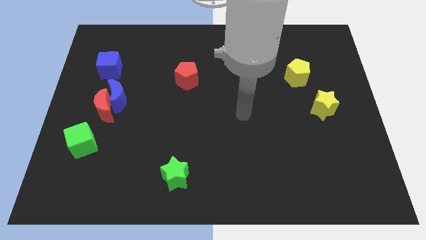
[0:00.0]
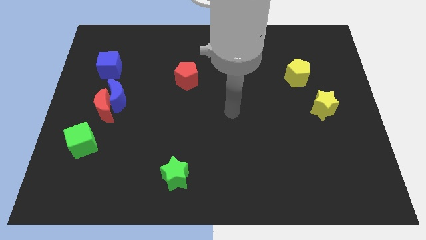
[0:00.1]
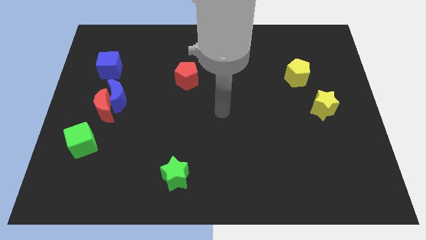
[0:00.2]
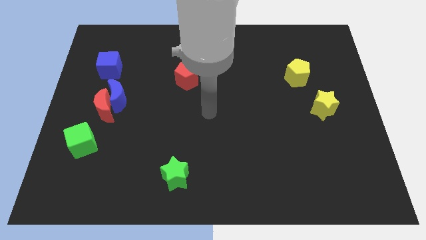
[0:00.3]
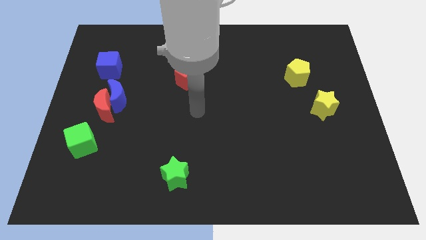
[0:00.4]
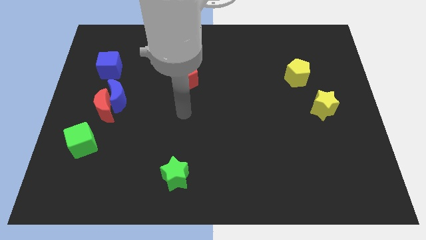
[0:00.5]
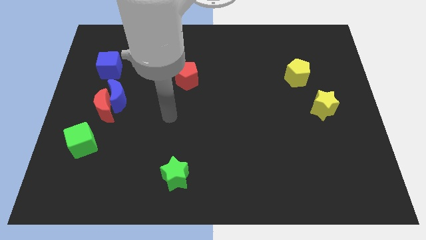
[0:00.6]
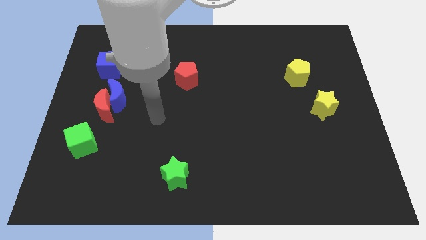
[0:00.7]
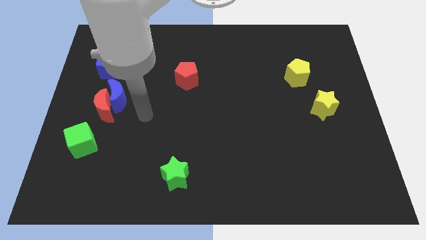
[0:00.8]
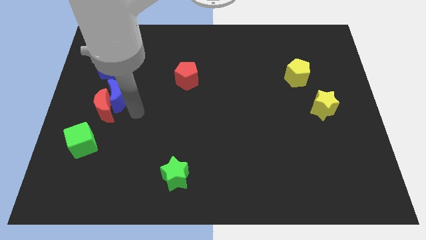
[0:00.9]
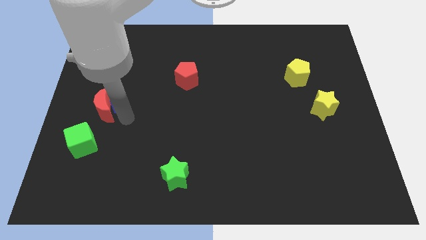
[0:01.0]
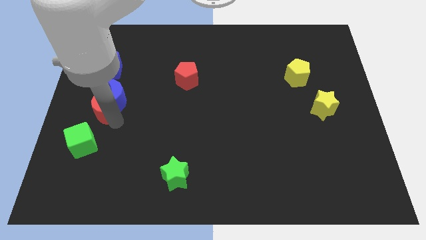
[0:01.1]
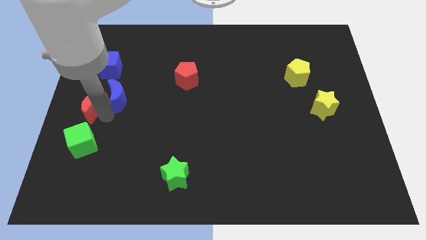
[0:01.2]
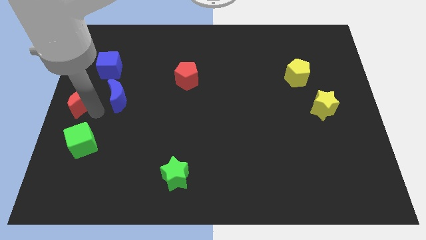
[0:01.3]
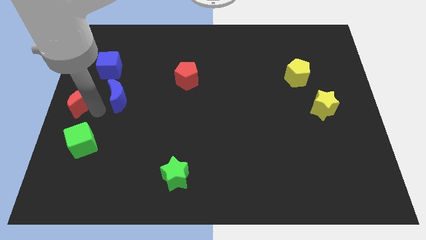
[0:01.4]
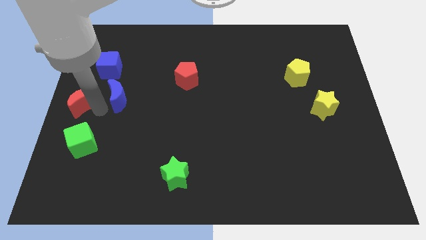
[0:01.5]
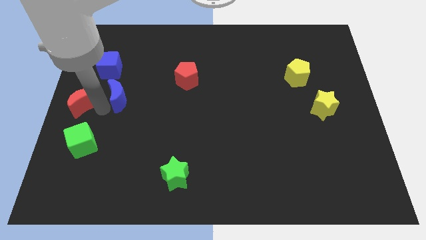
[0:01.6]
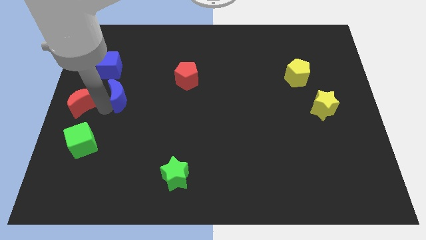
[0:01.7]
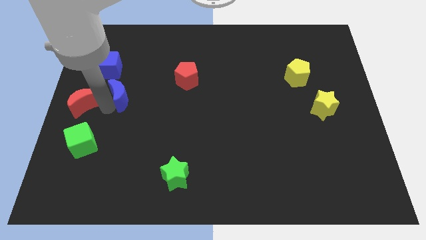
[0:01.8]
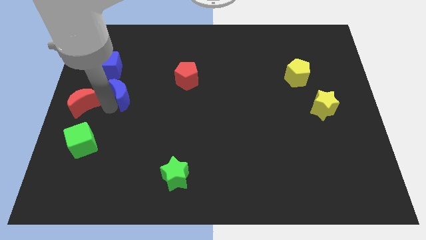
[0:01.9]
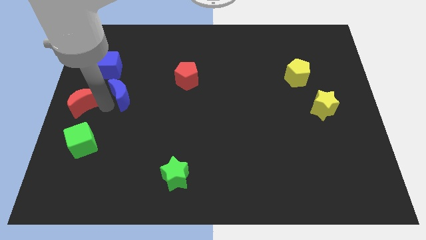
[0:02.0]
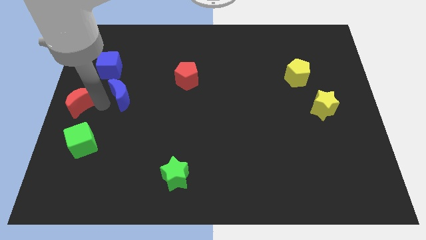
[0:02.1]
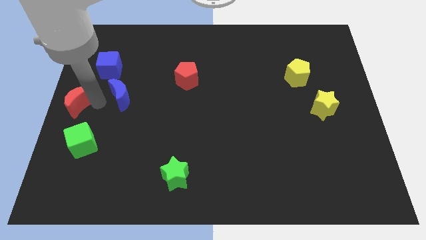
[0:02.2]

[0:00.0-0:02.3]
pull the blue moon apart from the red moon

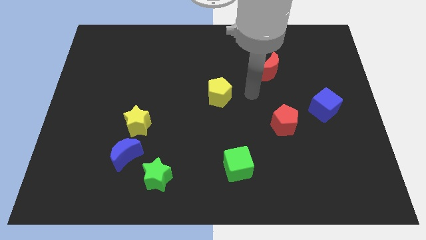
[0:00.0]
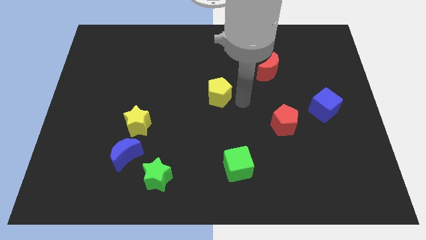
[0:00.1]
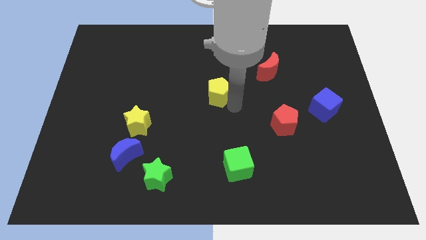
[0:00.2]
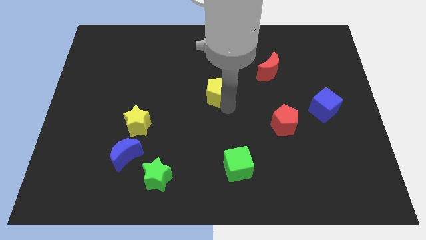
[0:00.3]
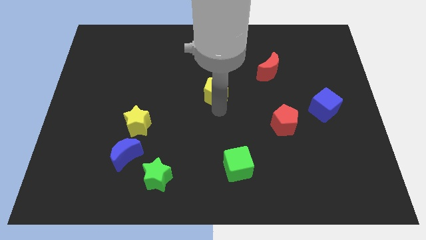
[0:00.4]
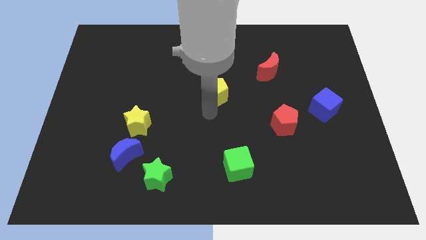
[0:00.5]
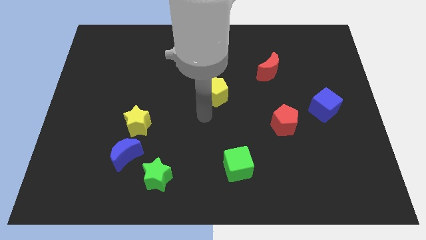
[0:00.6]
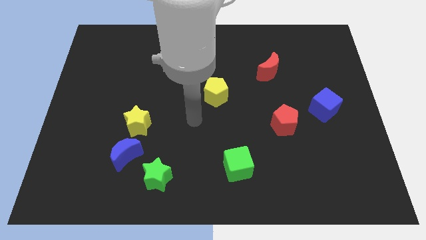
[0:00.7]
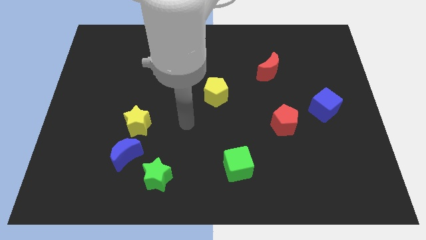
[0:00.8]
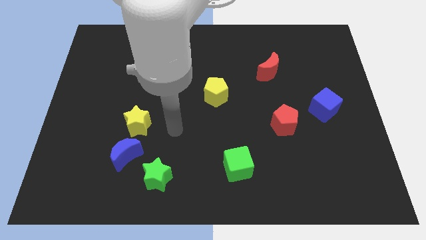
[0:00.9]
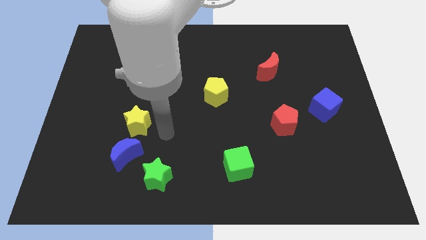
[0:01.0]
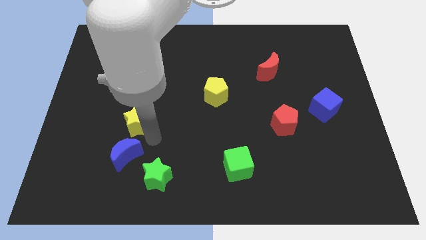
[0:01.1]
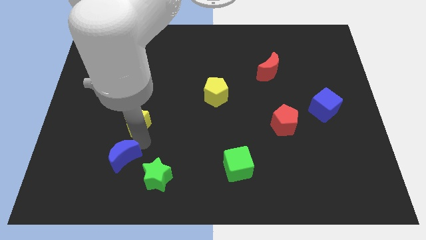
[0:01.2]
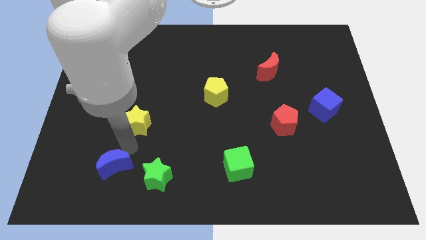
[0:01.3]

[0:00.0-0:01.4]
pull the yellow star apart from the blue moon

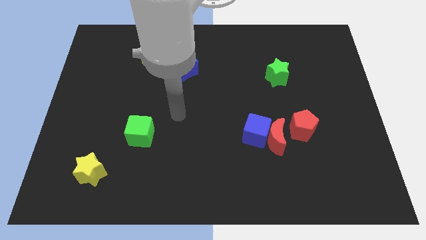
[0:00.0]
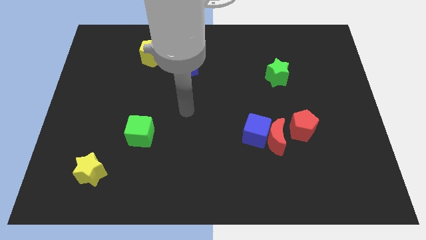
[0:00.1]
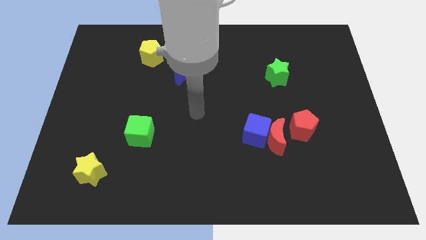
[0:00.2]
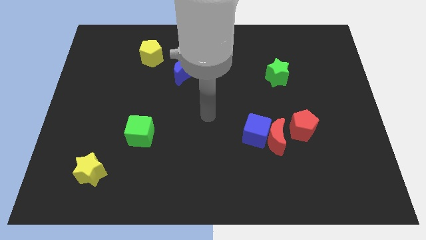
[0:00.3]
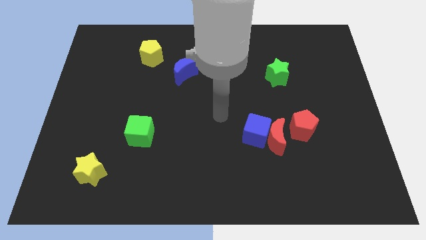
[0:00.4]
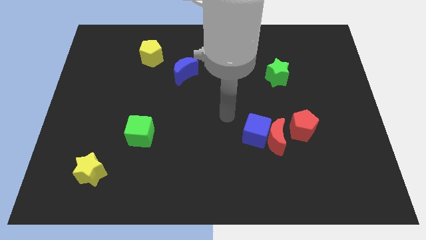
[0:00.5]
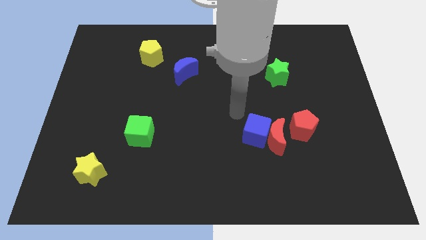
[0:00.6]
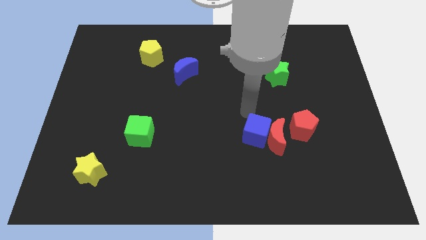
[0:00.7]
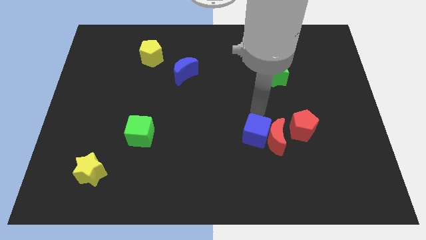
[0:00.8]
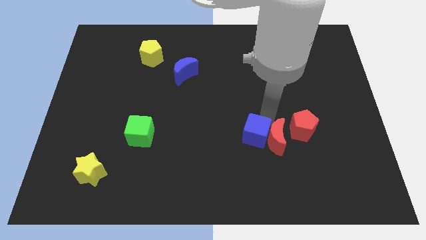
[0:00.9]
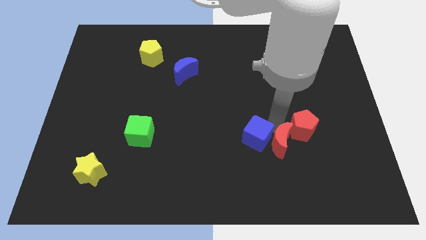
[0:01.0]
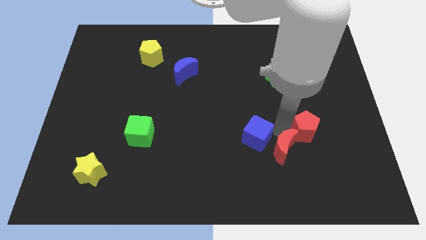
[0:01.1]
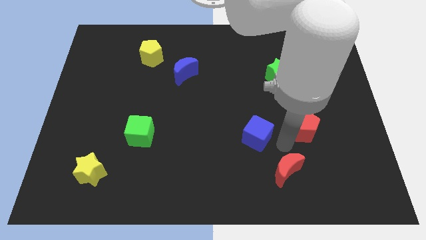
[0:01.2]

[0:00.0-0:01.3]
pull the blue cube apart from the red moon

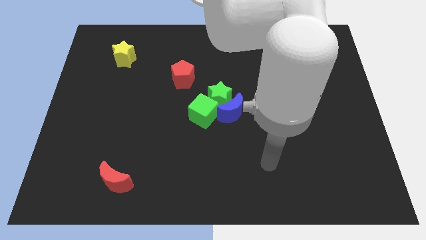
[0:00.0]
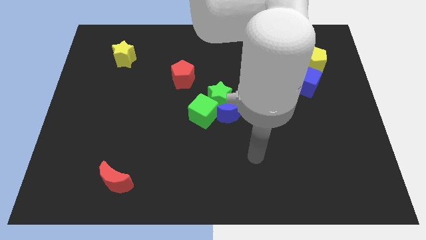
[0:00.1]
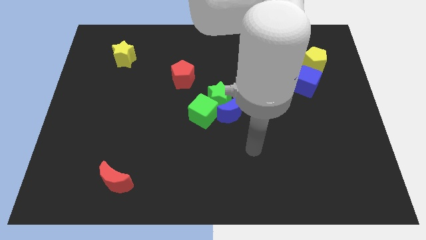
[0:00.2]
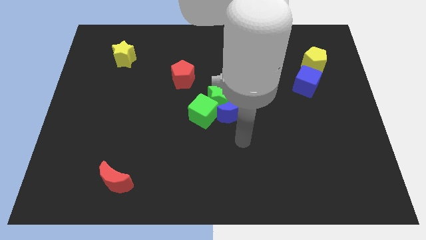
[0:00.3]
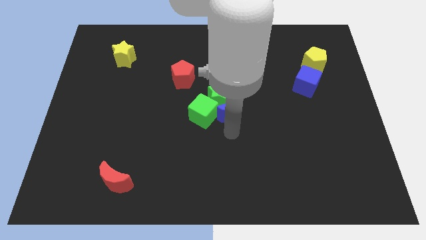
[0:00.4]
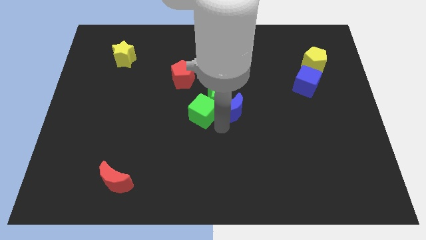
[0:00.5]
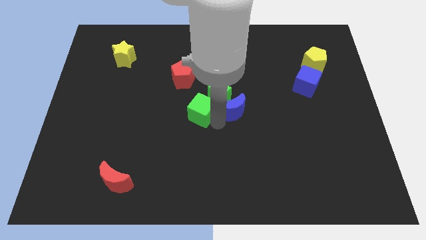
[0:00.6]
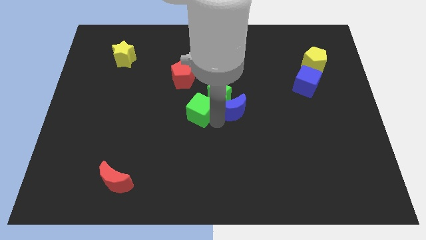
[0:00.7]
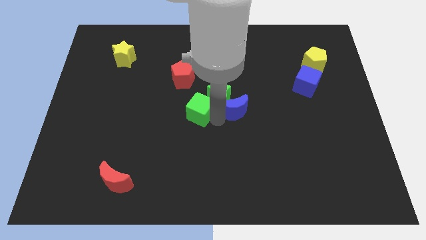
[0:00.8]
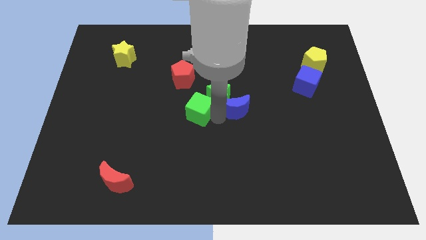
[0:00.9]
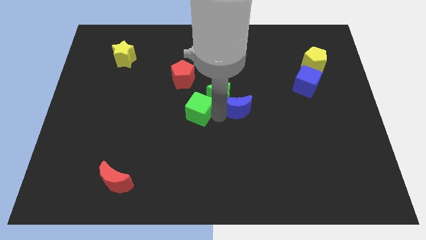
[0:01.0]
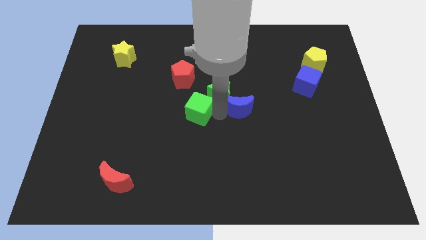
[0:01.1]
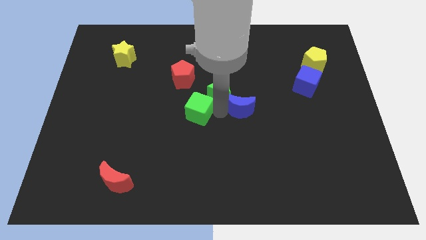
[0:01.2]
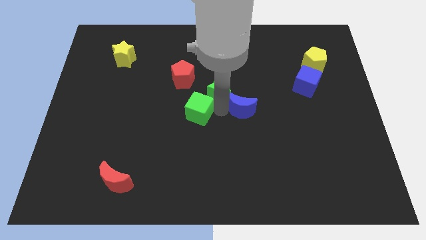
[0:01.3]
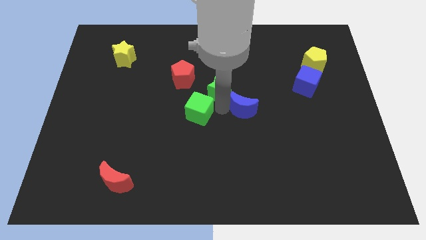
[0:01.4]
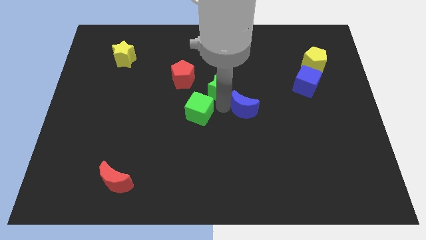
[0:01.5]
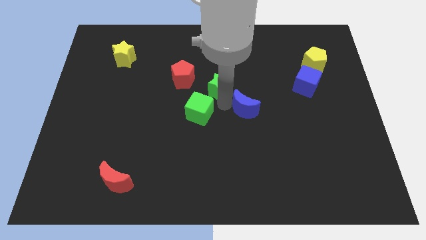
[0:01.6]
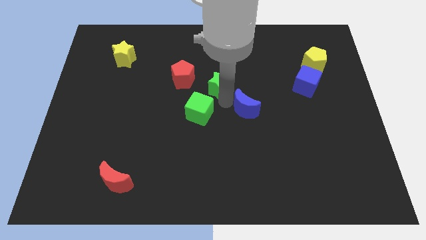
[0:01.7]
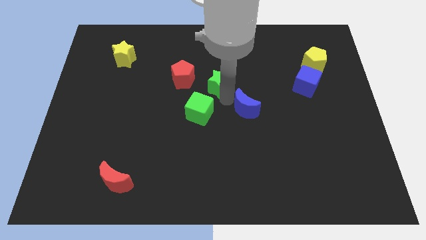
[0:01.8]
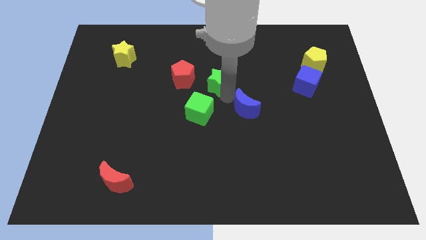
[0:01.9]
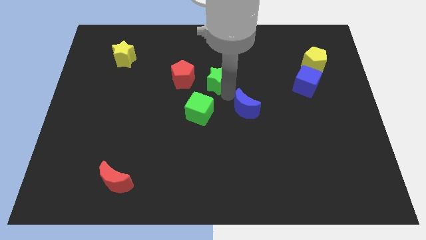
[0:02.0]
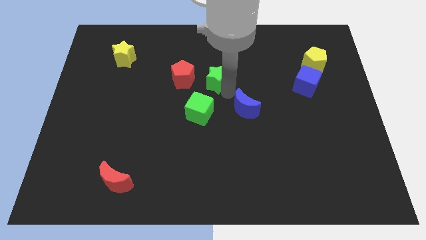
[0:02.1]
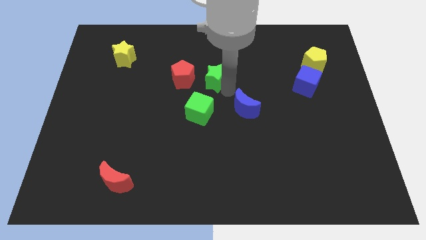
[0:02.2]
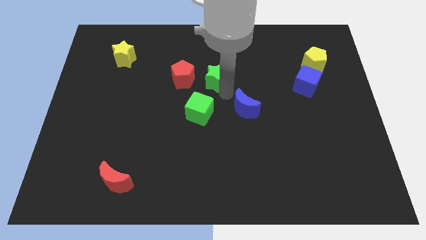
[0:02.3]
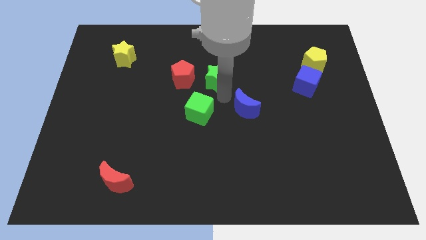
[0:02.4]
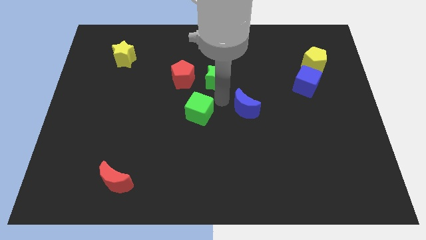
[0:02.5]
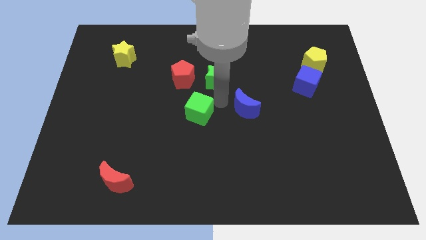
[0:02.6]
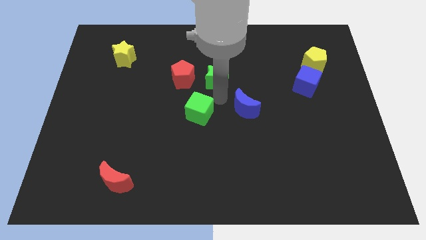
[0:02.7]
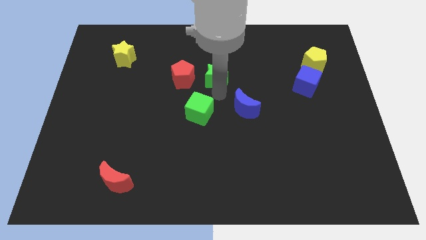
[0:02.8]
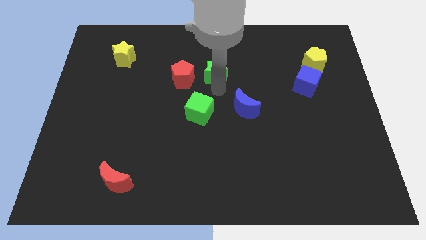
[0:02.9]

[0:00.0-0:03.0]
move the green star away from the blue moon and green cube

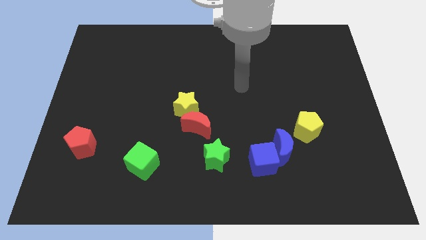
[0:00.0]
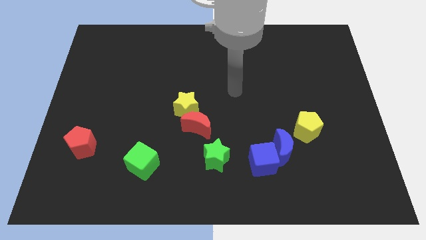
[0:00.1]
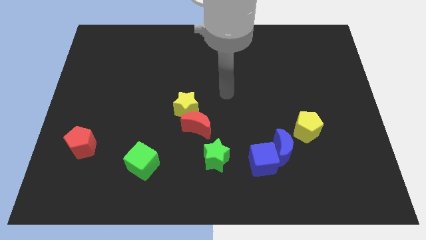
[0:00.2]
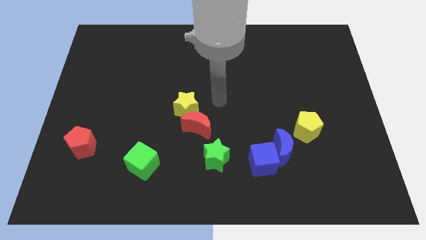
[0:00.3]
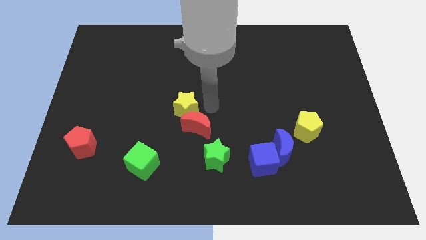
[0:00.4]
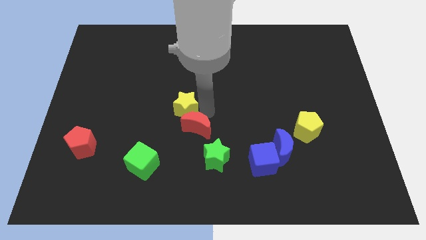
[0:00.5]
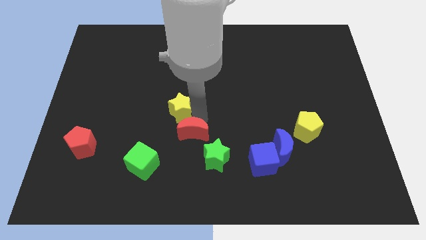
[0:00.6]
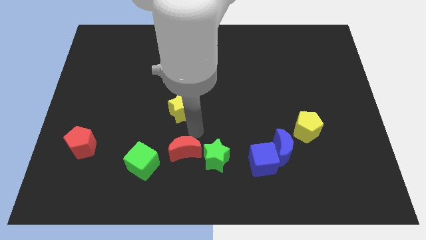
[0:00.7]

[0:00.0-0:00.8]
separate the yellow star from the red moon

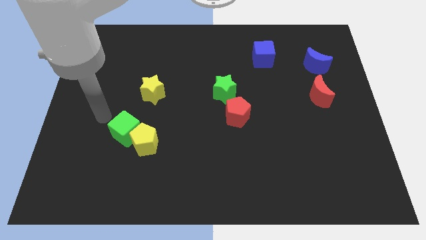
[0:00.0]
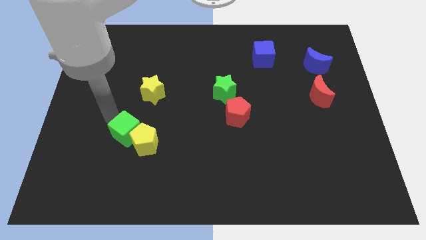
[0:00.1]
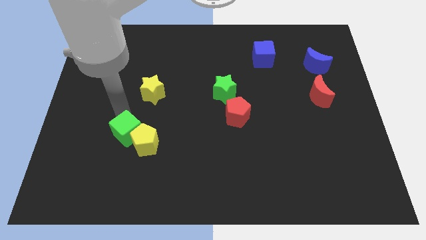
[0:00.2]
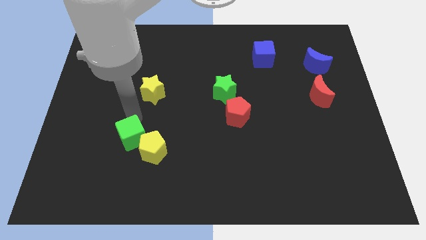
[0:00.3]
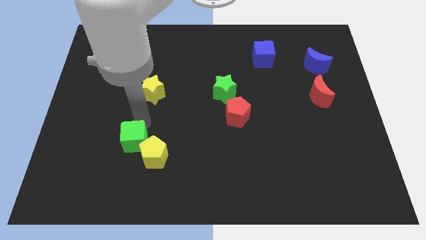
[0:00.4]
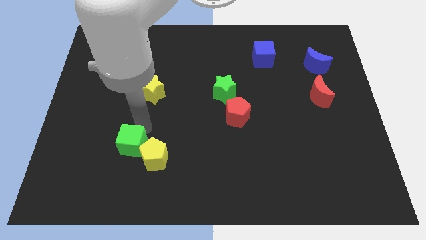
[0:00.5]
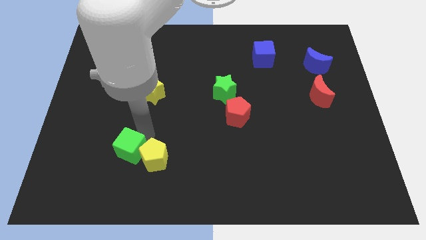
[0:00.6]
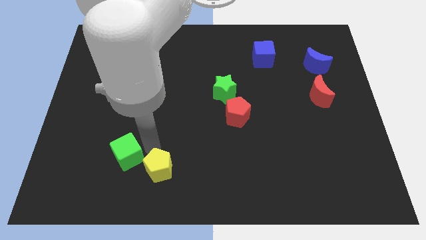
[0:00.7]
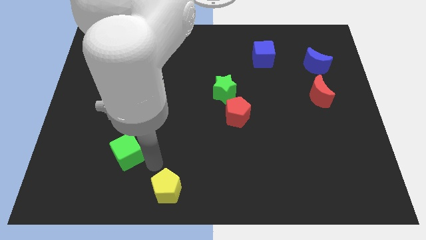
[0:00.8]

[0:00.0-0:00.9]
separate the green cube from the yellow pentagon
